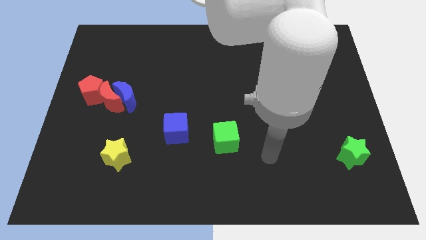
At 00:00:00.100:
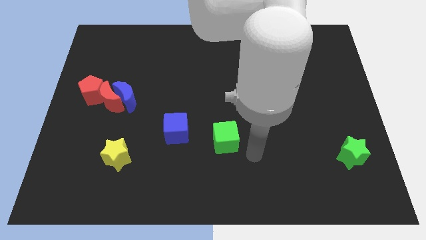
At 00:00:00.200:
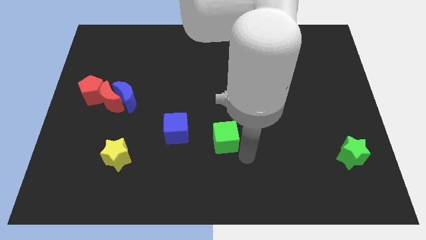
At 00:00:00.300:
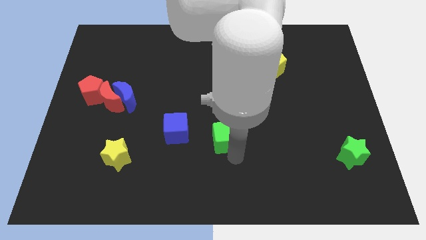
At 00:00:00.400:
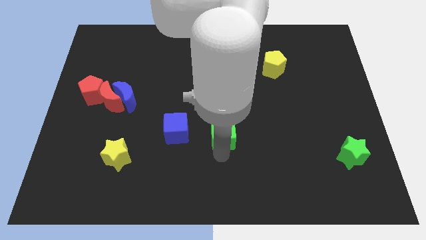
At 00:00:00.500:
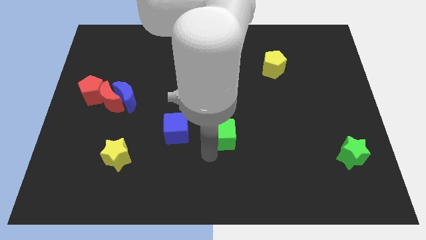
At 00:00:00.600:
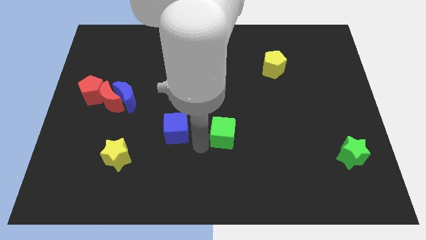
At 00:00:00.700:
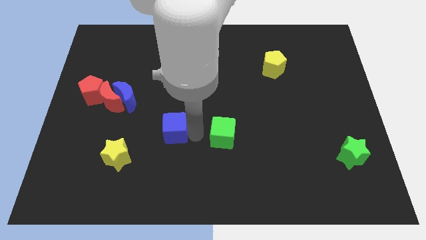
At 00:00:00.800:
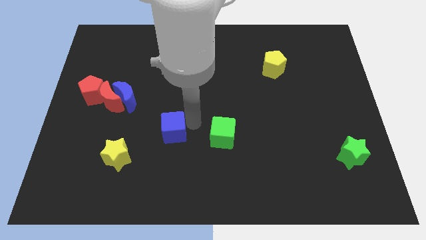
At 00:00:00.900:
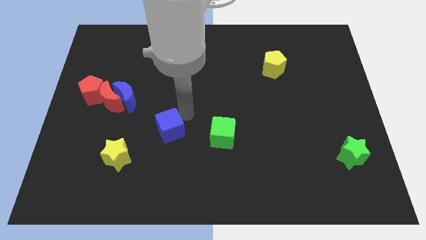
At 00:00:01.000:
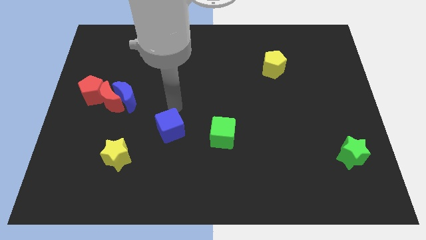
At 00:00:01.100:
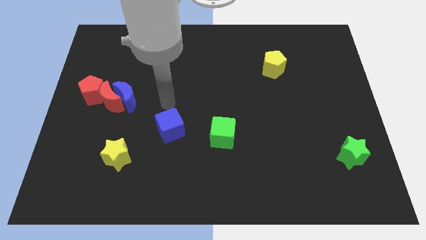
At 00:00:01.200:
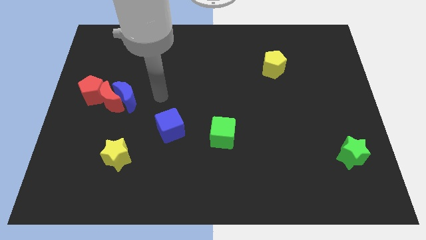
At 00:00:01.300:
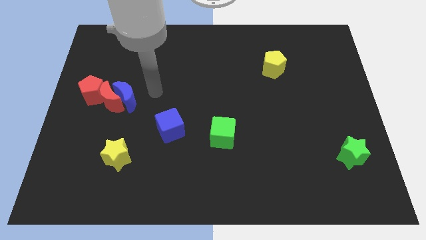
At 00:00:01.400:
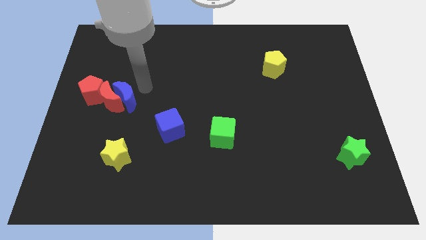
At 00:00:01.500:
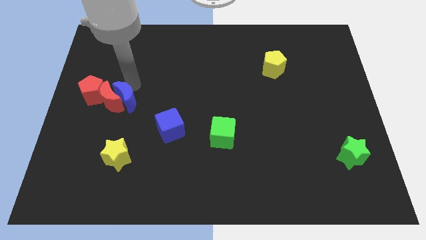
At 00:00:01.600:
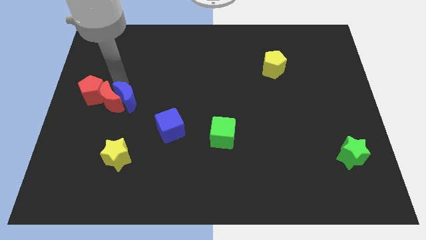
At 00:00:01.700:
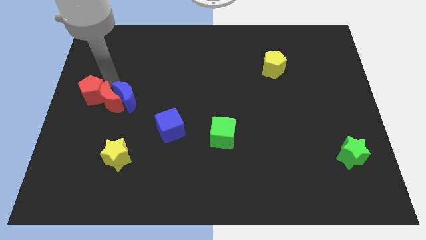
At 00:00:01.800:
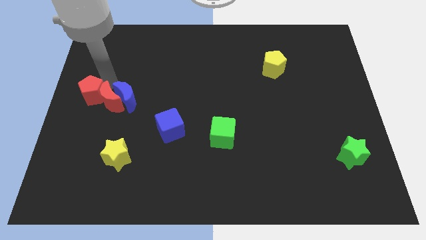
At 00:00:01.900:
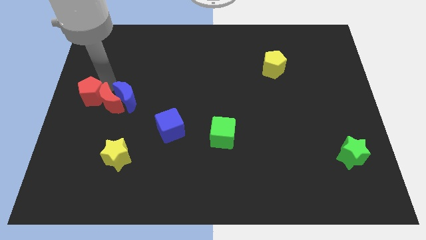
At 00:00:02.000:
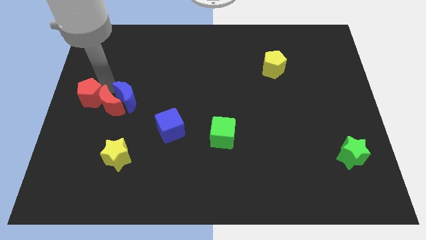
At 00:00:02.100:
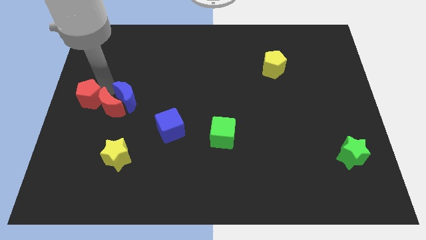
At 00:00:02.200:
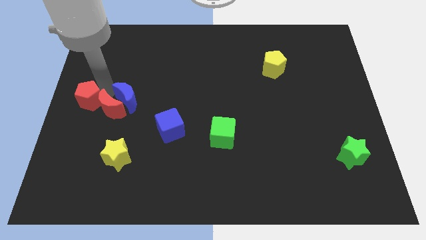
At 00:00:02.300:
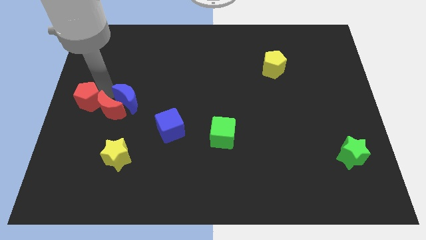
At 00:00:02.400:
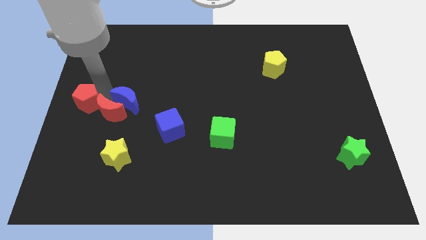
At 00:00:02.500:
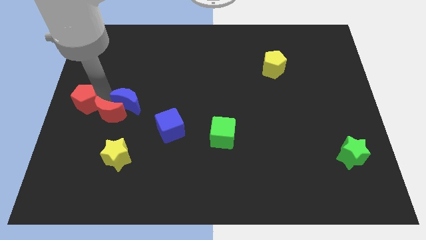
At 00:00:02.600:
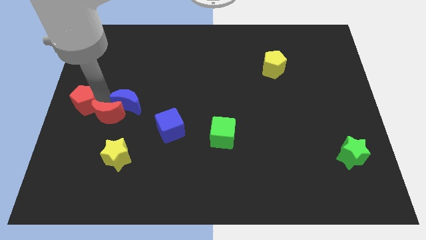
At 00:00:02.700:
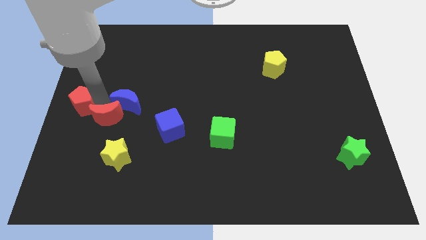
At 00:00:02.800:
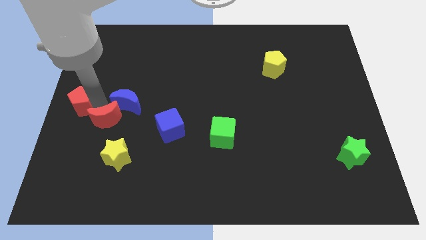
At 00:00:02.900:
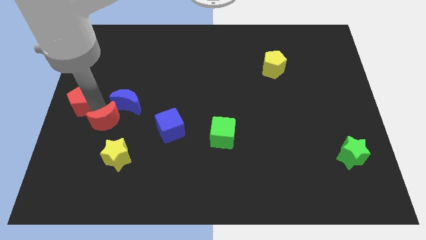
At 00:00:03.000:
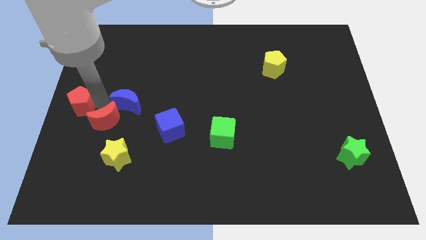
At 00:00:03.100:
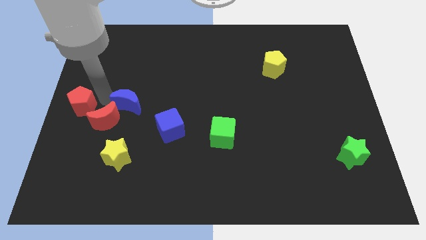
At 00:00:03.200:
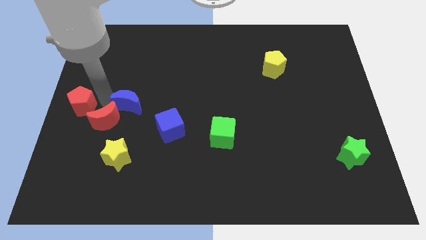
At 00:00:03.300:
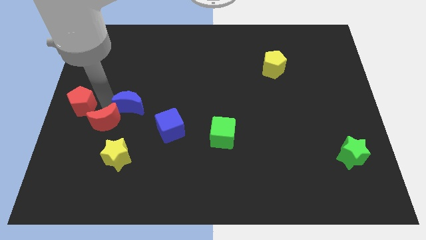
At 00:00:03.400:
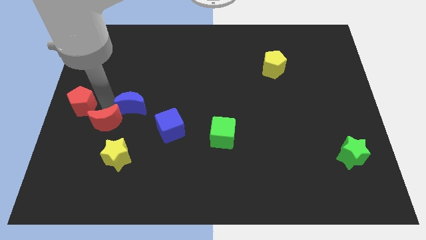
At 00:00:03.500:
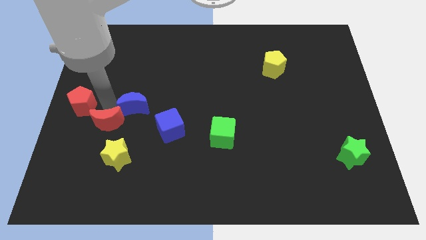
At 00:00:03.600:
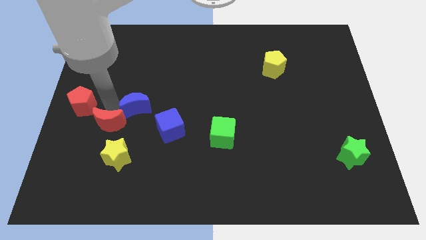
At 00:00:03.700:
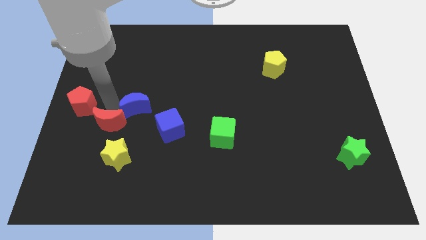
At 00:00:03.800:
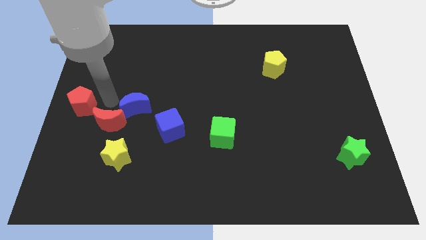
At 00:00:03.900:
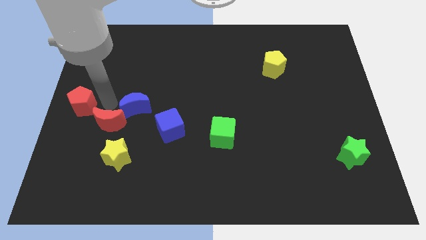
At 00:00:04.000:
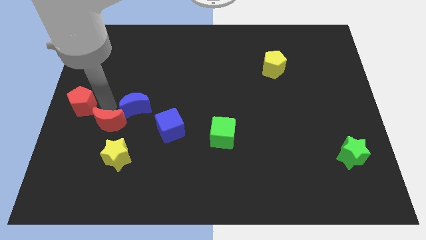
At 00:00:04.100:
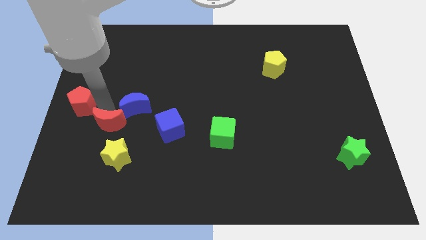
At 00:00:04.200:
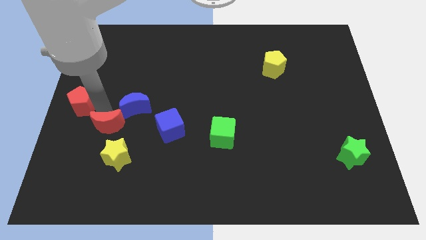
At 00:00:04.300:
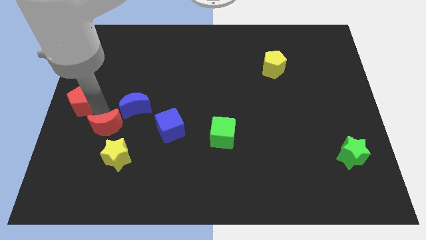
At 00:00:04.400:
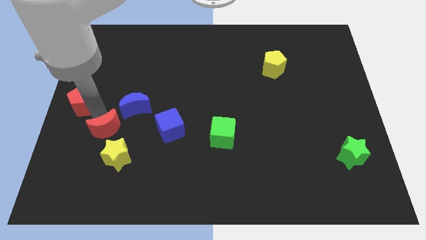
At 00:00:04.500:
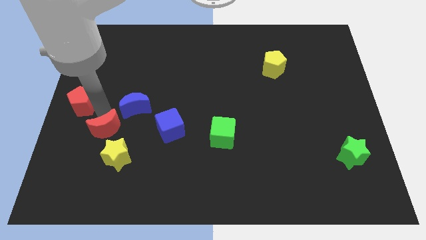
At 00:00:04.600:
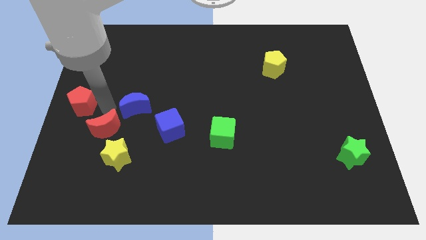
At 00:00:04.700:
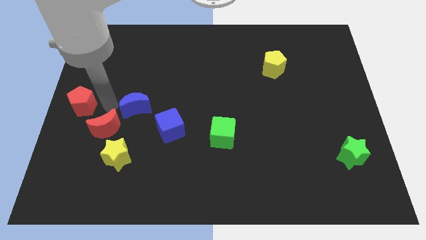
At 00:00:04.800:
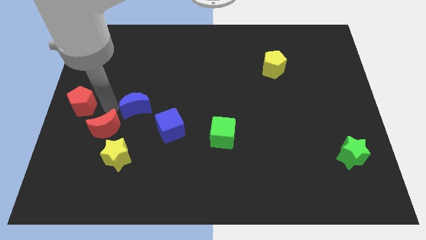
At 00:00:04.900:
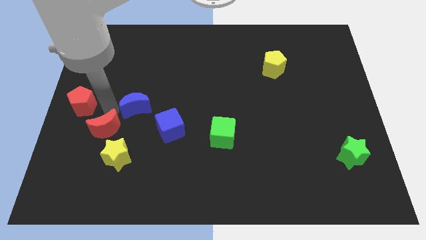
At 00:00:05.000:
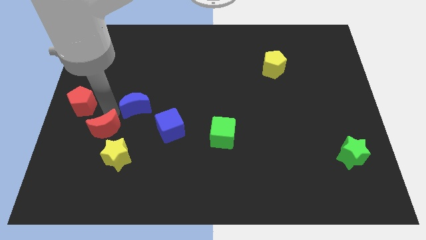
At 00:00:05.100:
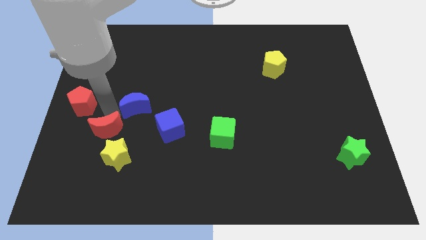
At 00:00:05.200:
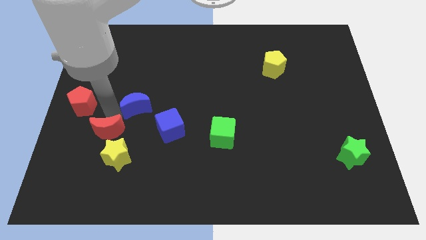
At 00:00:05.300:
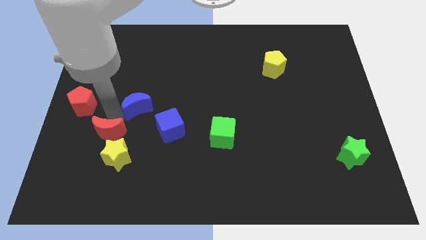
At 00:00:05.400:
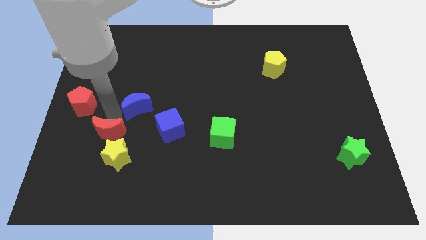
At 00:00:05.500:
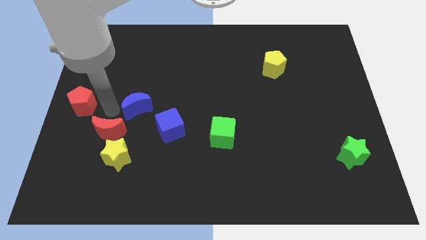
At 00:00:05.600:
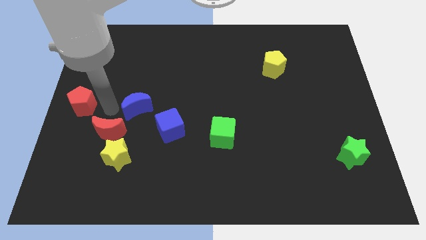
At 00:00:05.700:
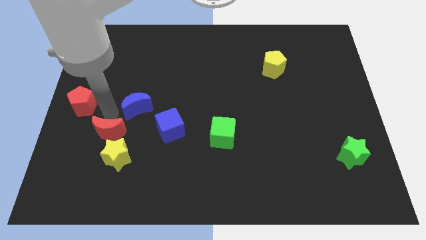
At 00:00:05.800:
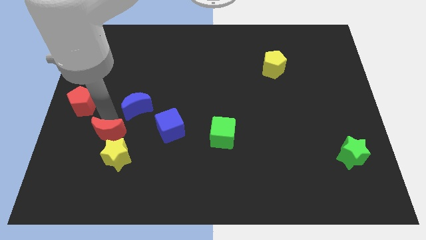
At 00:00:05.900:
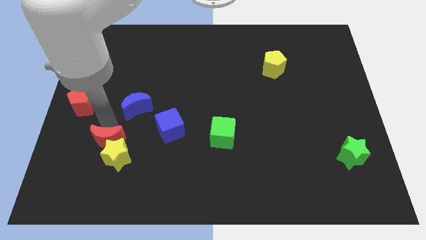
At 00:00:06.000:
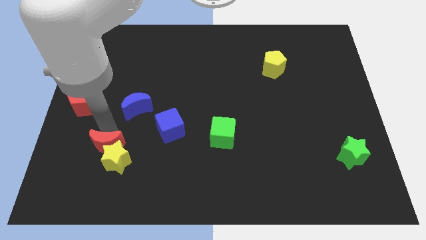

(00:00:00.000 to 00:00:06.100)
pull the red moon apart from the blue moon and red pentagon

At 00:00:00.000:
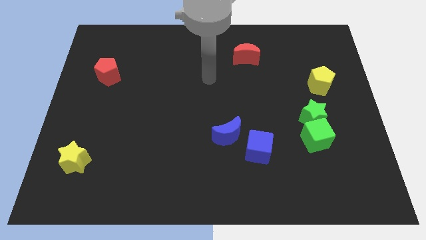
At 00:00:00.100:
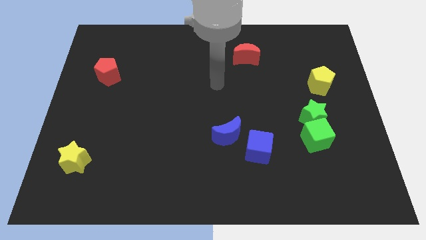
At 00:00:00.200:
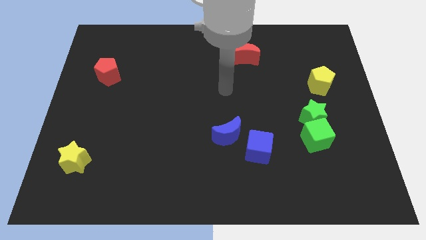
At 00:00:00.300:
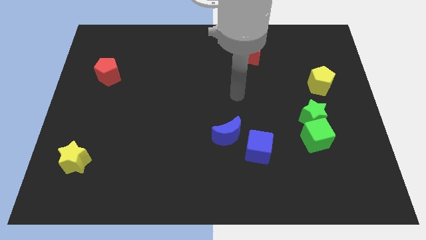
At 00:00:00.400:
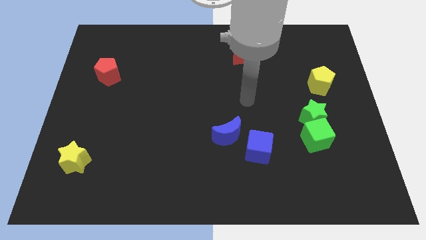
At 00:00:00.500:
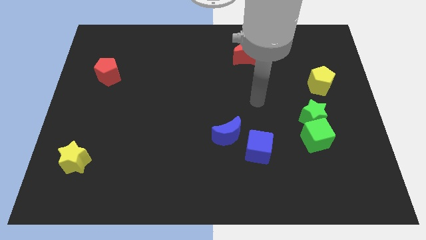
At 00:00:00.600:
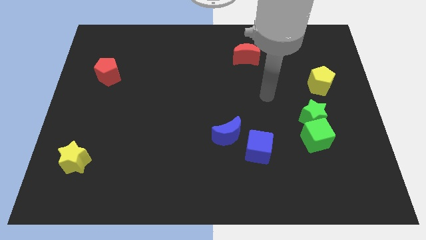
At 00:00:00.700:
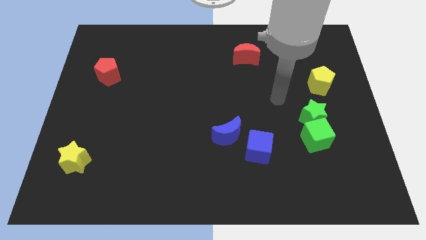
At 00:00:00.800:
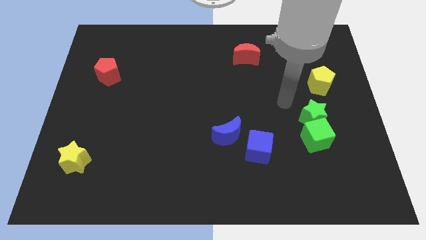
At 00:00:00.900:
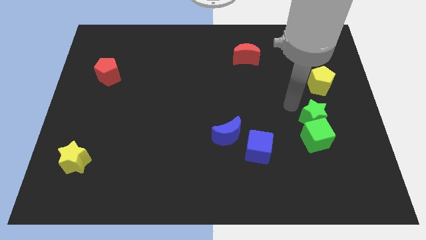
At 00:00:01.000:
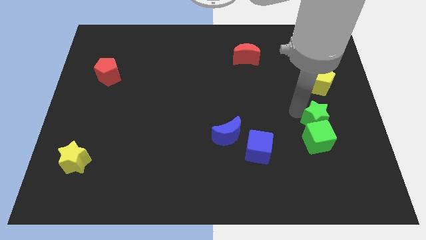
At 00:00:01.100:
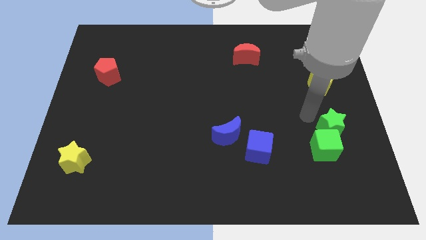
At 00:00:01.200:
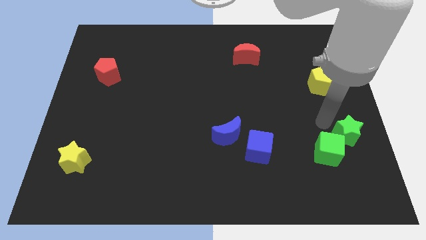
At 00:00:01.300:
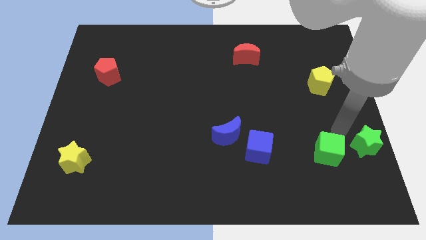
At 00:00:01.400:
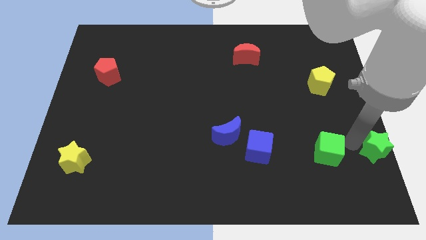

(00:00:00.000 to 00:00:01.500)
pull the green cube apart from the green star

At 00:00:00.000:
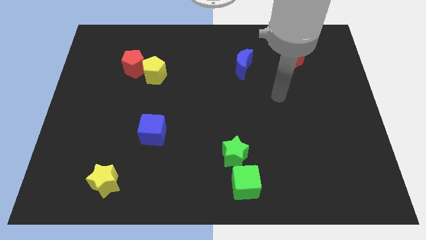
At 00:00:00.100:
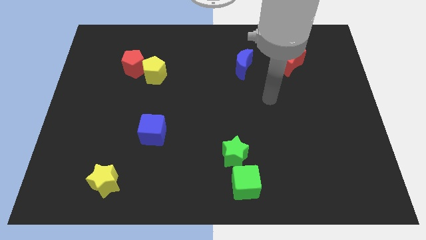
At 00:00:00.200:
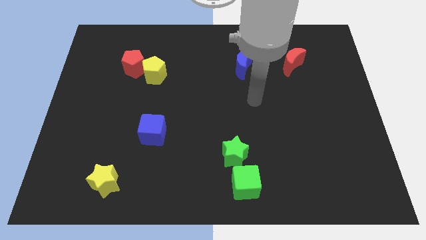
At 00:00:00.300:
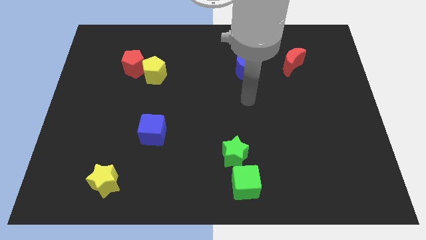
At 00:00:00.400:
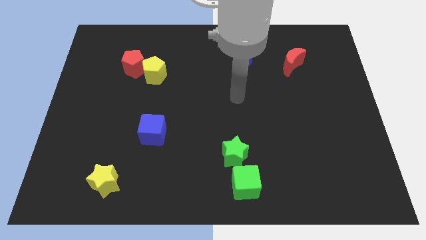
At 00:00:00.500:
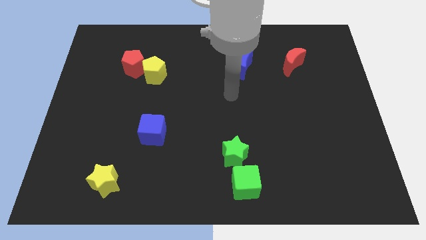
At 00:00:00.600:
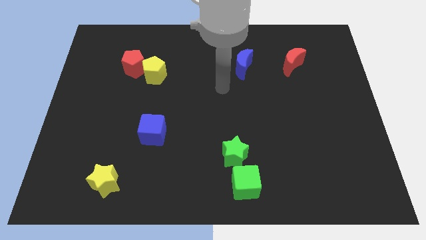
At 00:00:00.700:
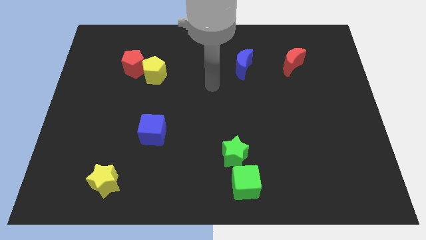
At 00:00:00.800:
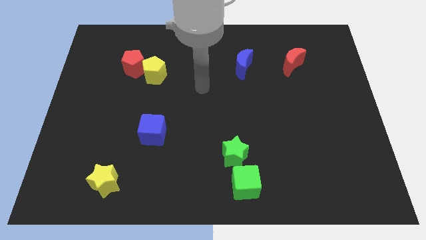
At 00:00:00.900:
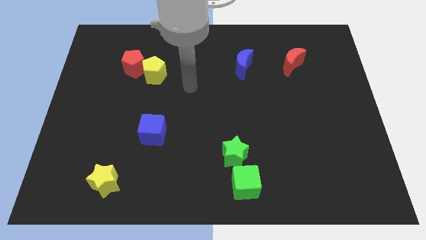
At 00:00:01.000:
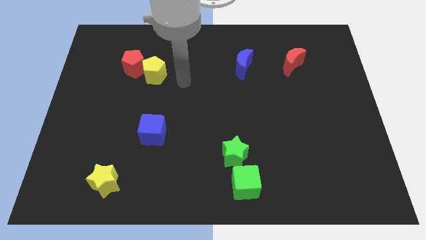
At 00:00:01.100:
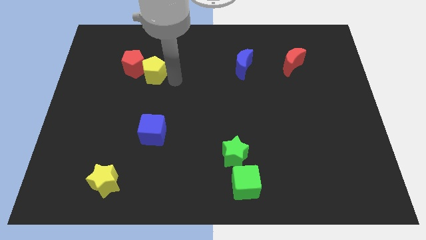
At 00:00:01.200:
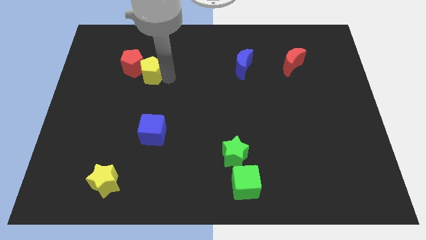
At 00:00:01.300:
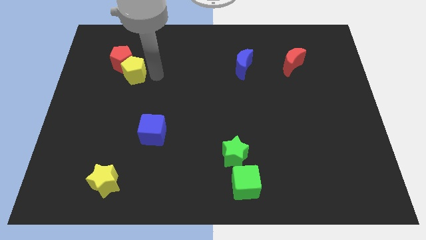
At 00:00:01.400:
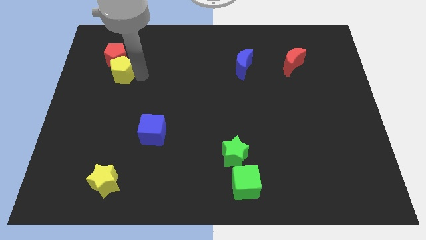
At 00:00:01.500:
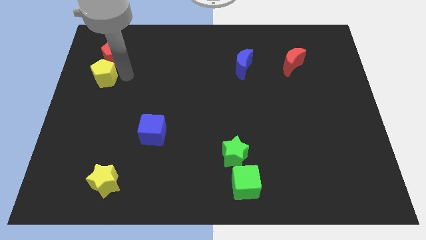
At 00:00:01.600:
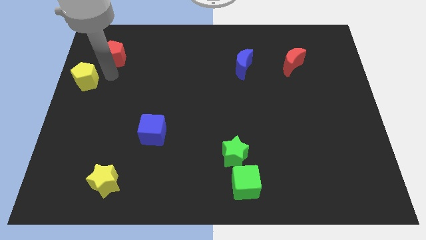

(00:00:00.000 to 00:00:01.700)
move the red pentagon away from the yellow pentagon
